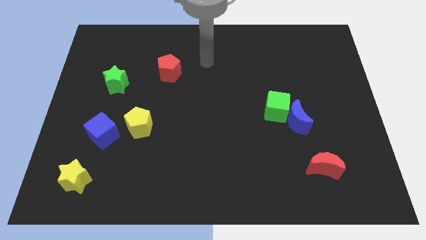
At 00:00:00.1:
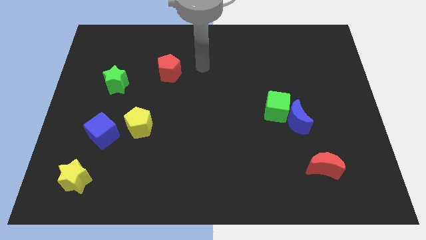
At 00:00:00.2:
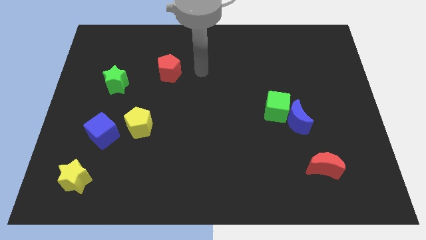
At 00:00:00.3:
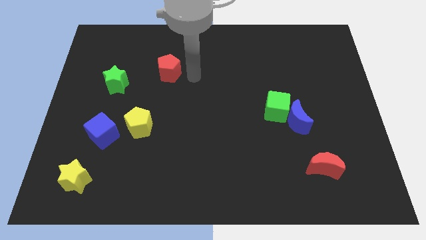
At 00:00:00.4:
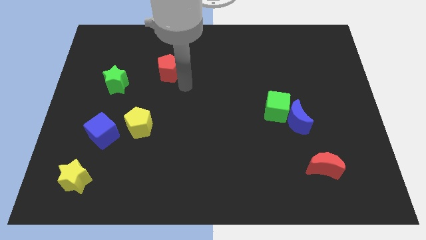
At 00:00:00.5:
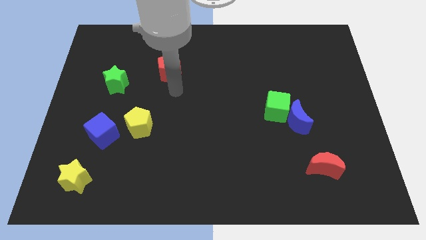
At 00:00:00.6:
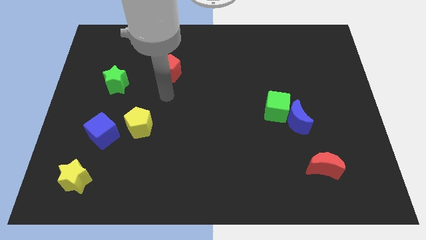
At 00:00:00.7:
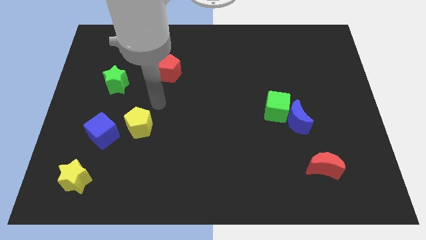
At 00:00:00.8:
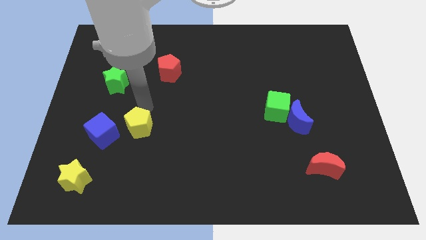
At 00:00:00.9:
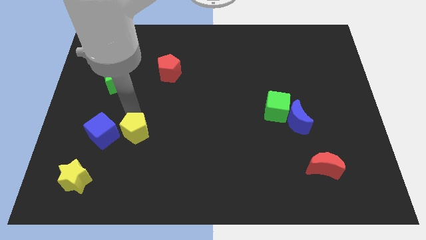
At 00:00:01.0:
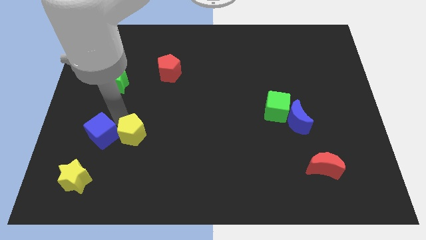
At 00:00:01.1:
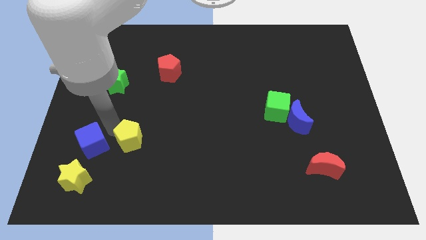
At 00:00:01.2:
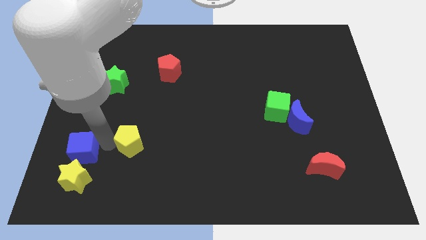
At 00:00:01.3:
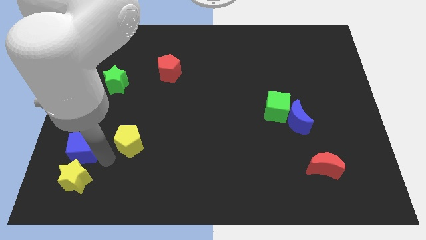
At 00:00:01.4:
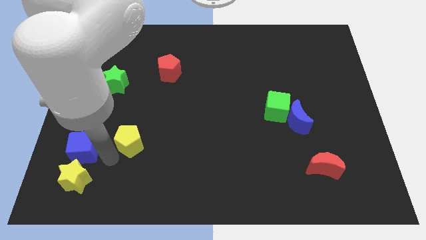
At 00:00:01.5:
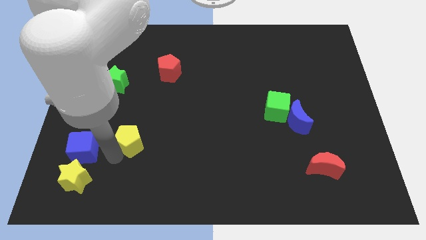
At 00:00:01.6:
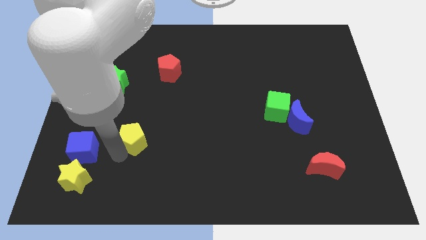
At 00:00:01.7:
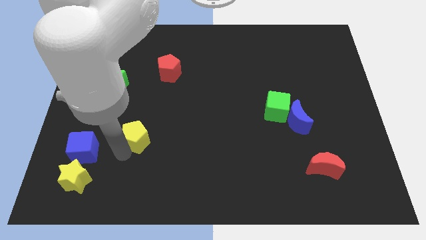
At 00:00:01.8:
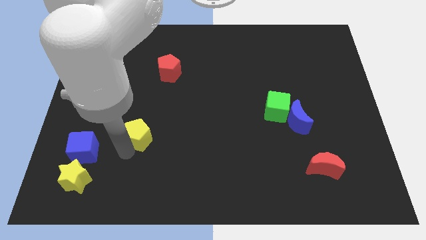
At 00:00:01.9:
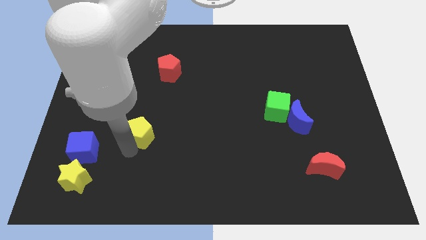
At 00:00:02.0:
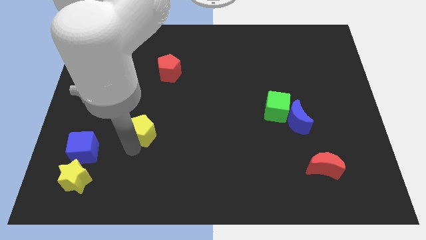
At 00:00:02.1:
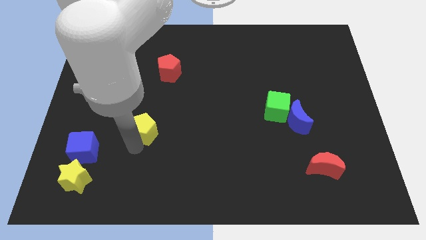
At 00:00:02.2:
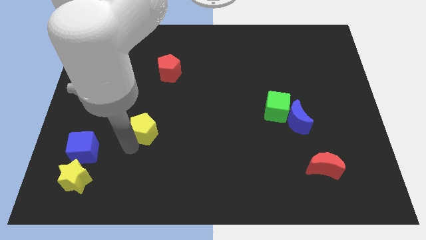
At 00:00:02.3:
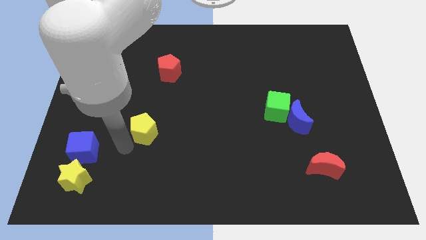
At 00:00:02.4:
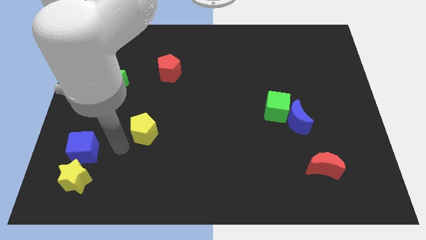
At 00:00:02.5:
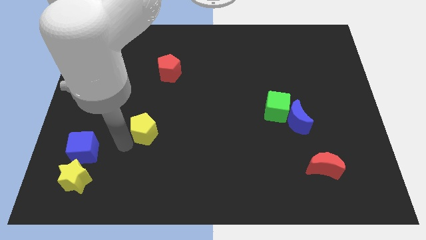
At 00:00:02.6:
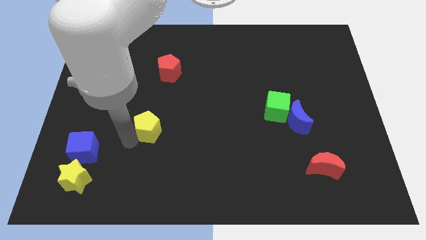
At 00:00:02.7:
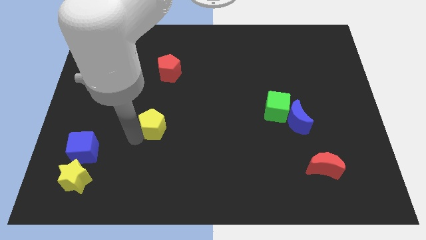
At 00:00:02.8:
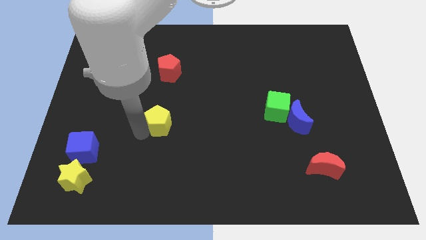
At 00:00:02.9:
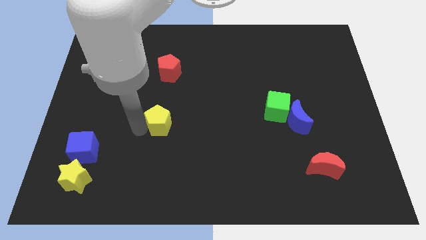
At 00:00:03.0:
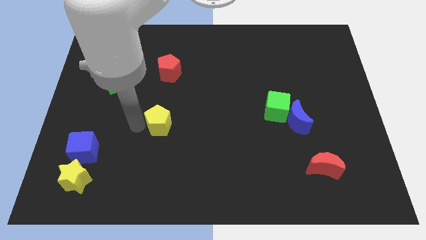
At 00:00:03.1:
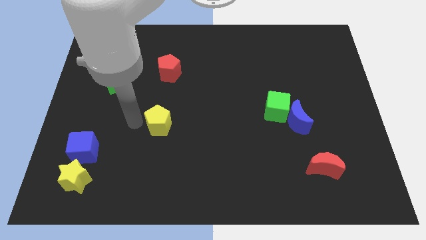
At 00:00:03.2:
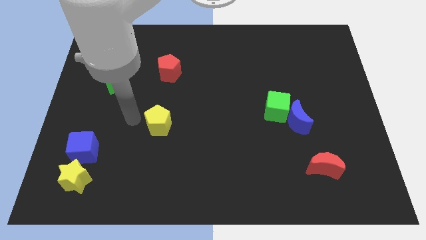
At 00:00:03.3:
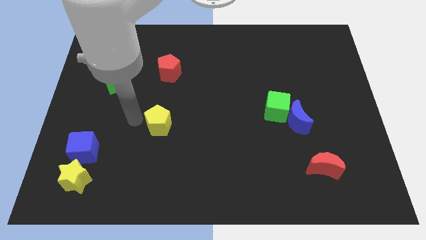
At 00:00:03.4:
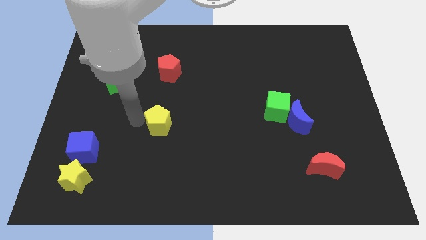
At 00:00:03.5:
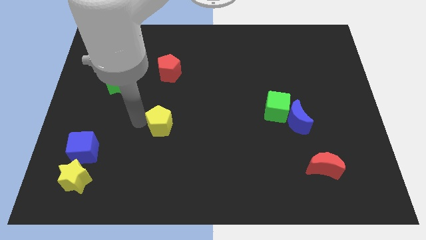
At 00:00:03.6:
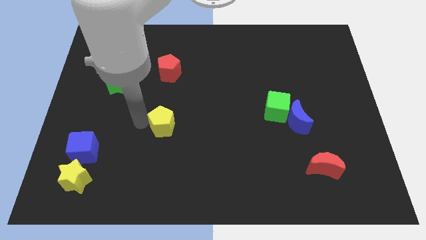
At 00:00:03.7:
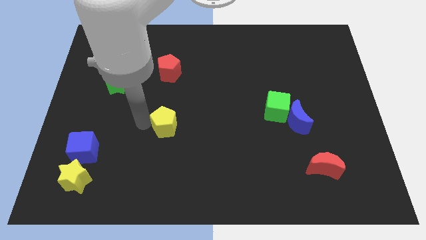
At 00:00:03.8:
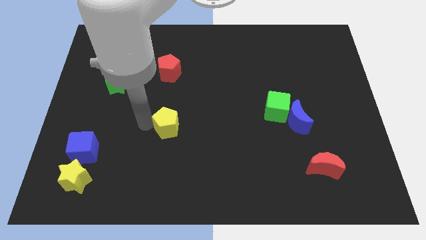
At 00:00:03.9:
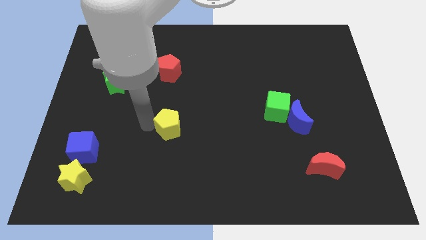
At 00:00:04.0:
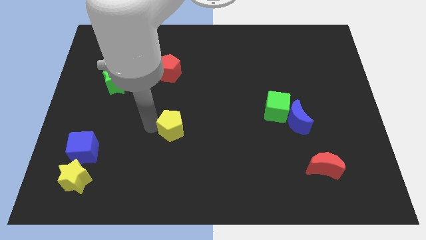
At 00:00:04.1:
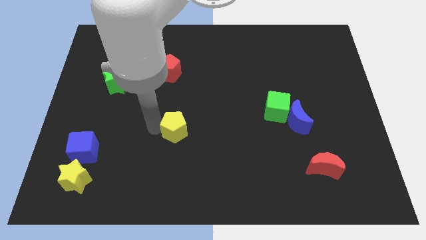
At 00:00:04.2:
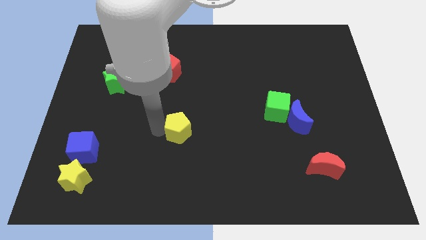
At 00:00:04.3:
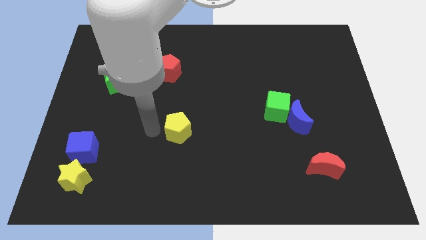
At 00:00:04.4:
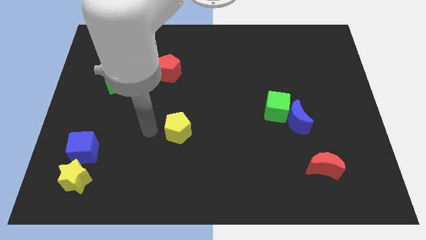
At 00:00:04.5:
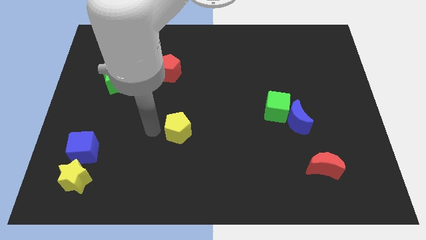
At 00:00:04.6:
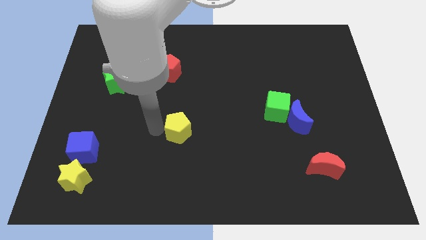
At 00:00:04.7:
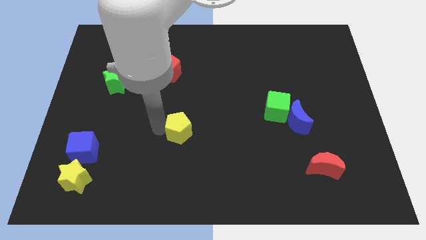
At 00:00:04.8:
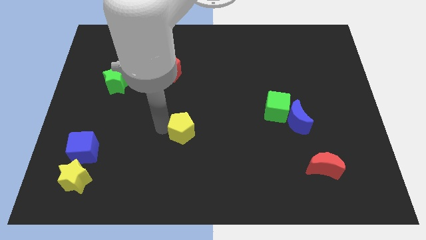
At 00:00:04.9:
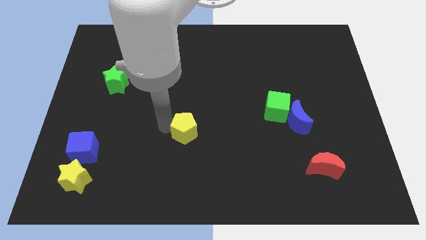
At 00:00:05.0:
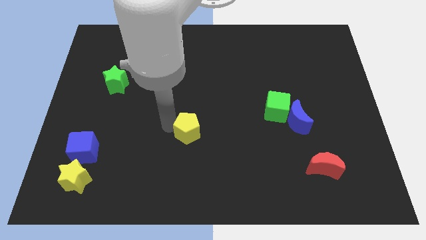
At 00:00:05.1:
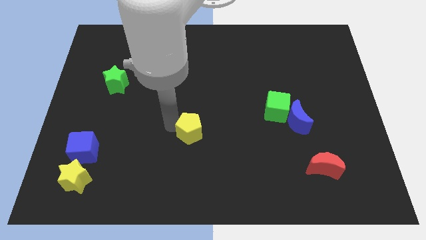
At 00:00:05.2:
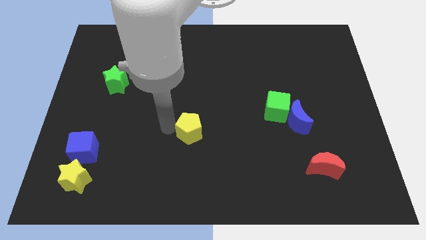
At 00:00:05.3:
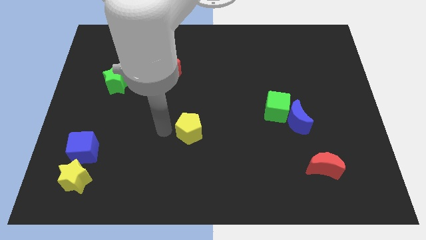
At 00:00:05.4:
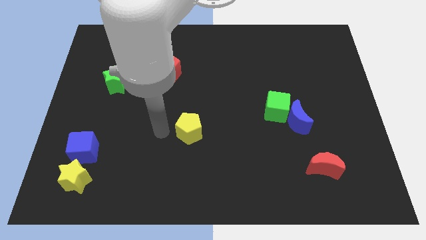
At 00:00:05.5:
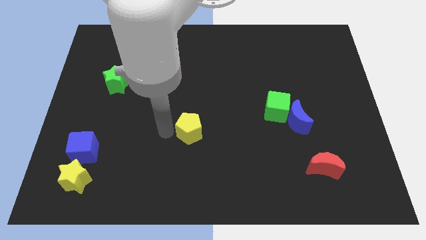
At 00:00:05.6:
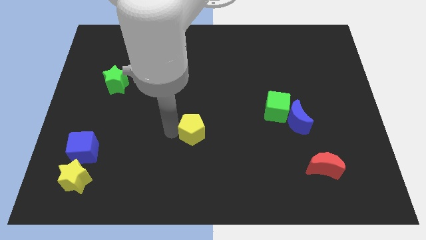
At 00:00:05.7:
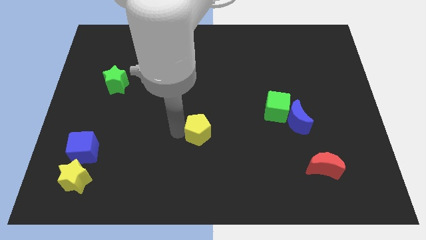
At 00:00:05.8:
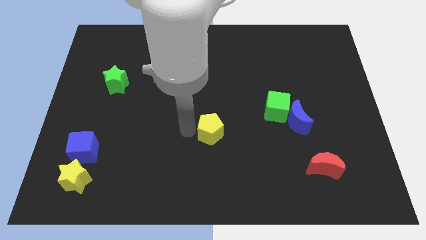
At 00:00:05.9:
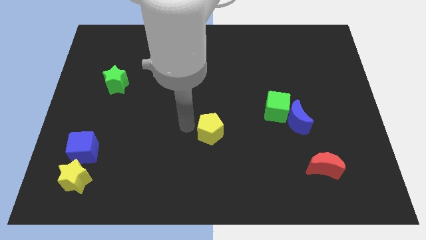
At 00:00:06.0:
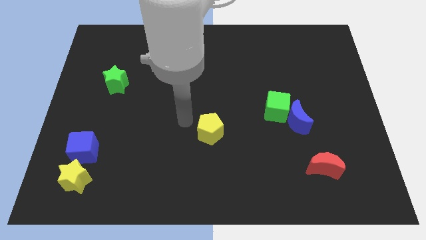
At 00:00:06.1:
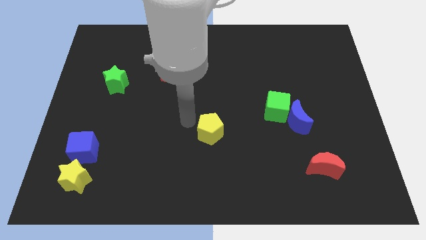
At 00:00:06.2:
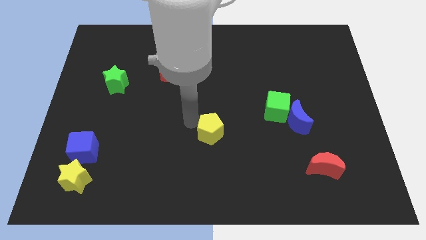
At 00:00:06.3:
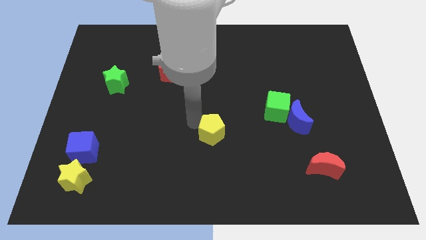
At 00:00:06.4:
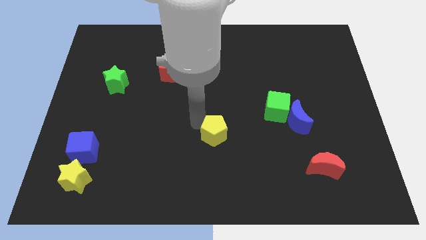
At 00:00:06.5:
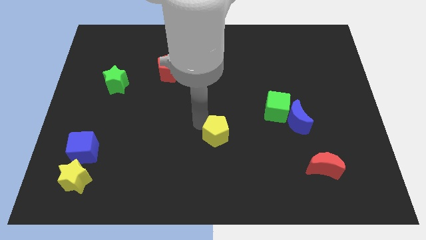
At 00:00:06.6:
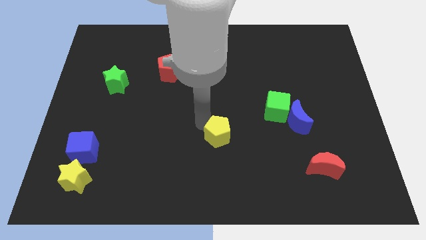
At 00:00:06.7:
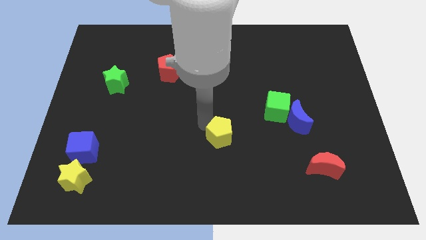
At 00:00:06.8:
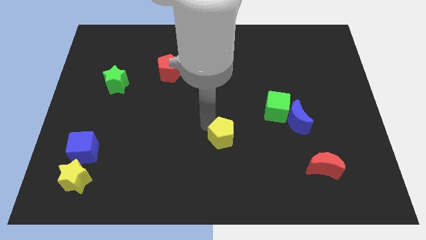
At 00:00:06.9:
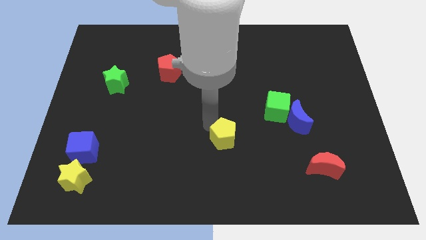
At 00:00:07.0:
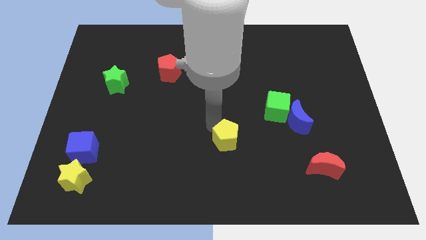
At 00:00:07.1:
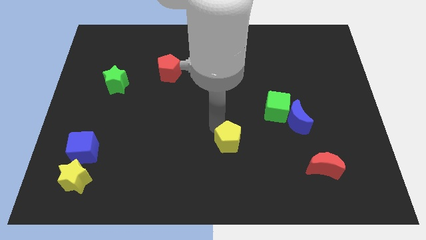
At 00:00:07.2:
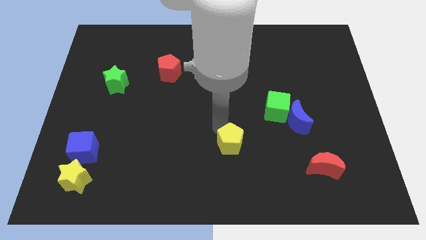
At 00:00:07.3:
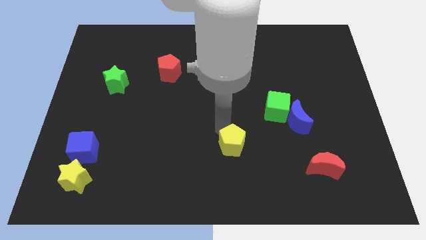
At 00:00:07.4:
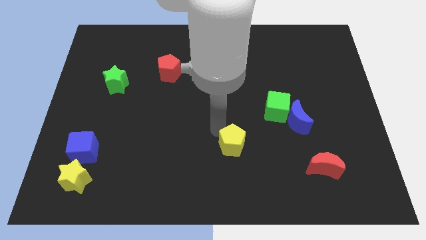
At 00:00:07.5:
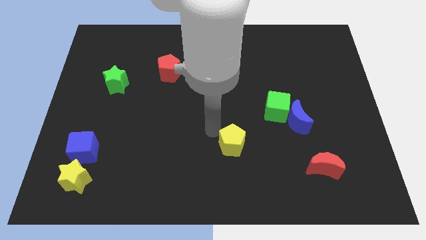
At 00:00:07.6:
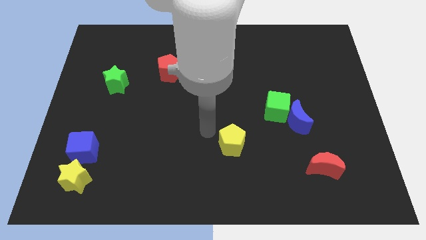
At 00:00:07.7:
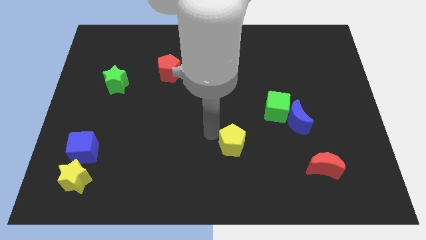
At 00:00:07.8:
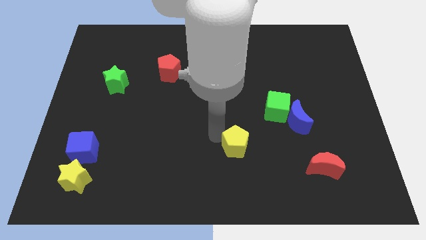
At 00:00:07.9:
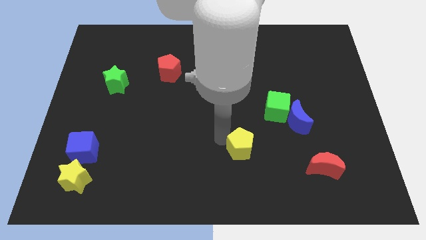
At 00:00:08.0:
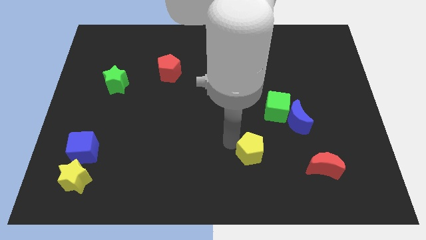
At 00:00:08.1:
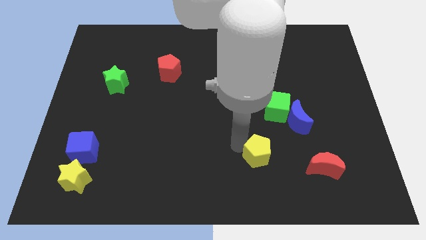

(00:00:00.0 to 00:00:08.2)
push the yellow pentagon to the left of the red moon
